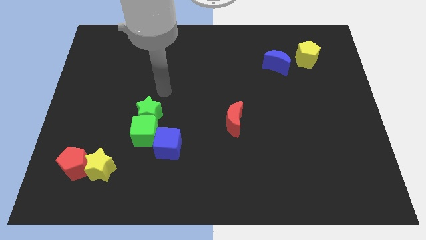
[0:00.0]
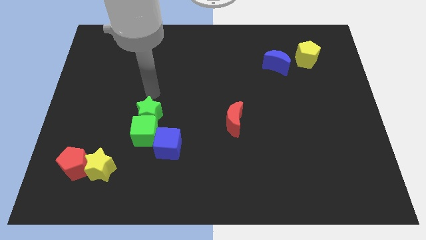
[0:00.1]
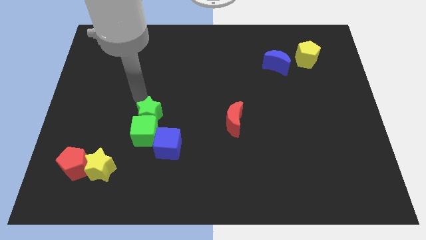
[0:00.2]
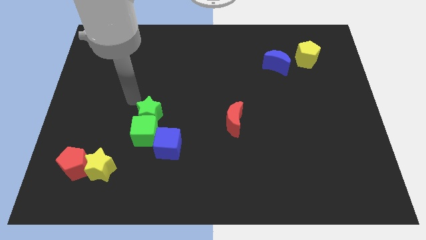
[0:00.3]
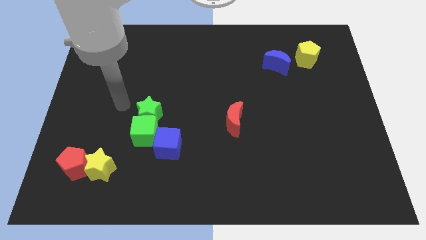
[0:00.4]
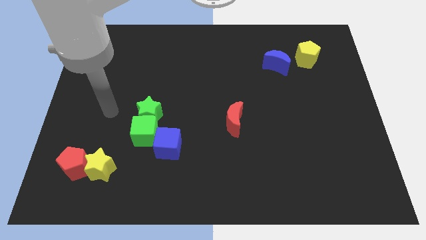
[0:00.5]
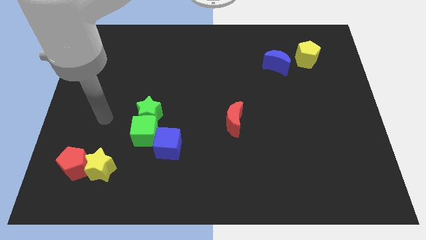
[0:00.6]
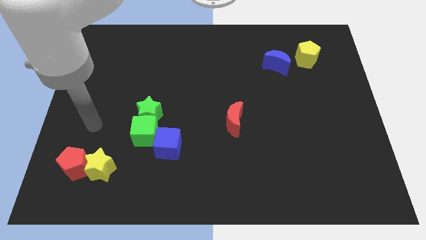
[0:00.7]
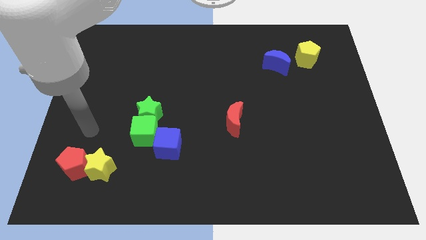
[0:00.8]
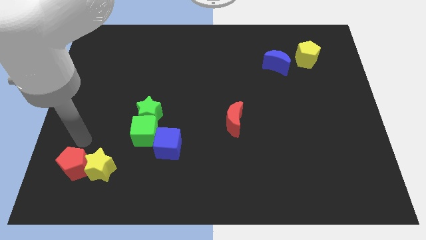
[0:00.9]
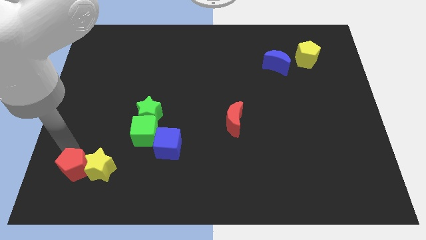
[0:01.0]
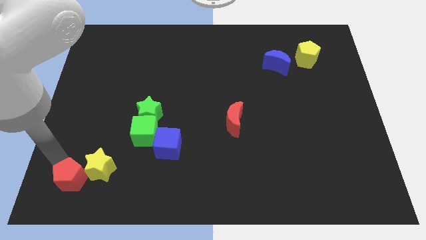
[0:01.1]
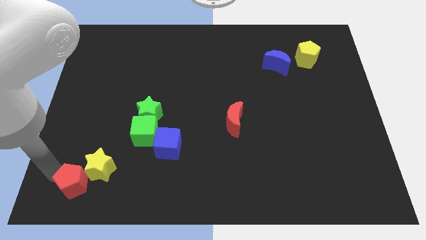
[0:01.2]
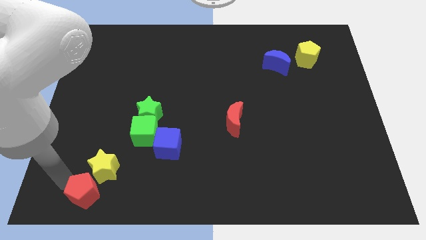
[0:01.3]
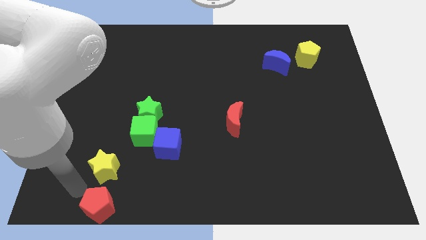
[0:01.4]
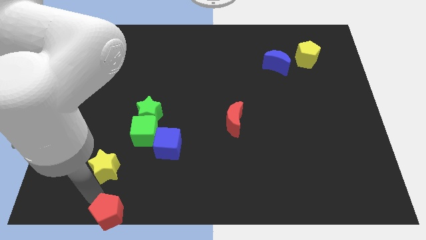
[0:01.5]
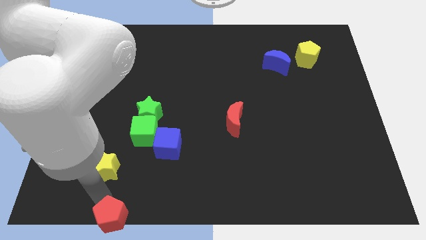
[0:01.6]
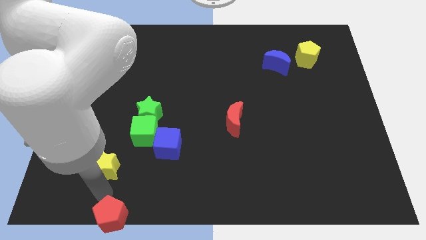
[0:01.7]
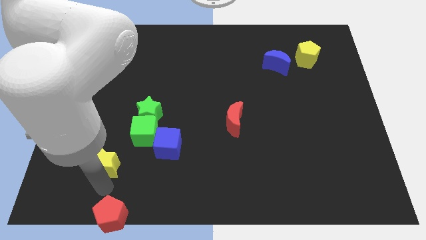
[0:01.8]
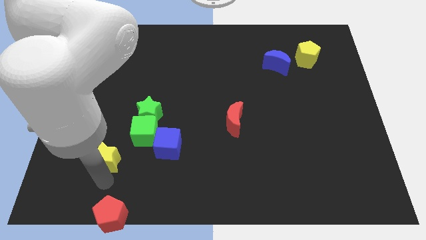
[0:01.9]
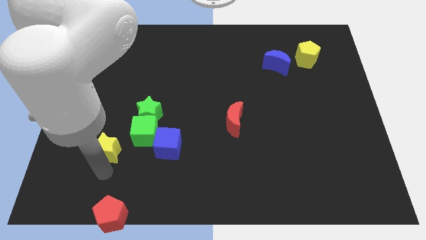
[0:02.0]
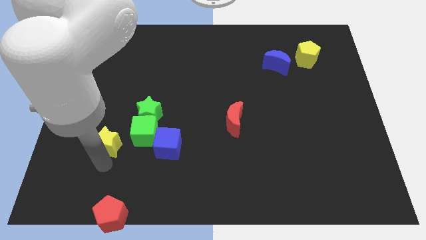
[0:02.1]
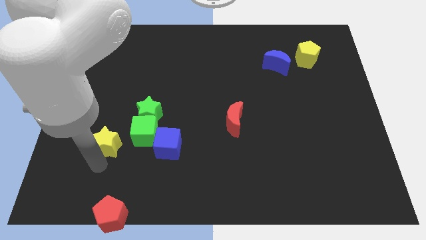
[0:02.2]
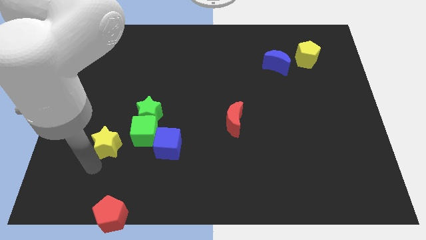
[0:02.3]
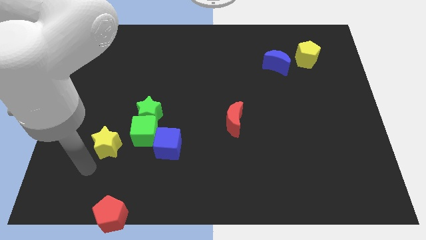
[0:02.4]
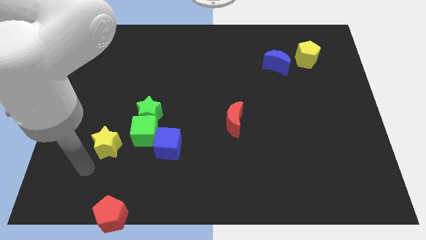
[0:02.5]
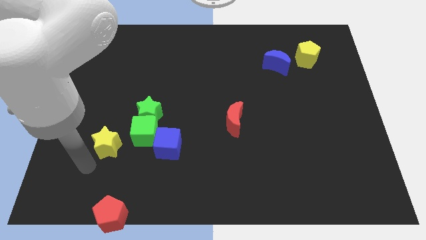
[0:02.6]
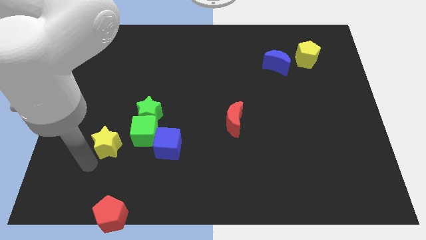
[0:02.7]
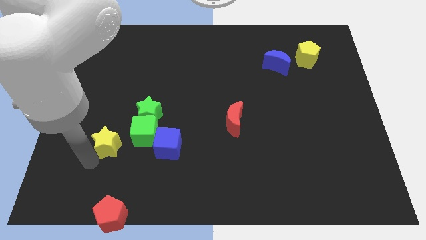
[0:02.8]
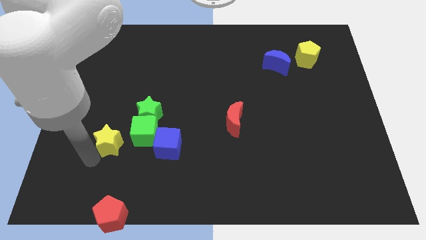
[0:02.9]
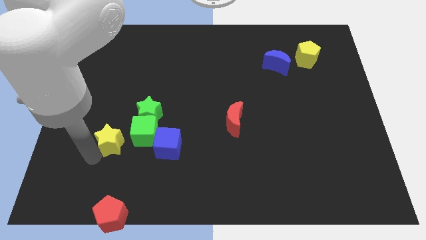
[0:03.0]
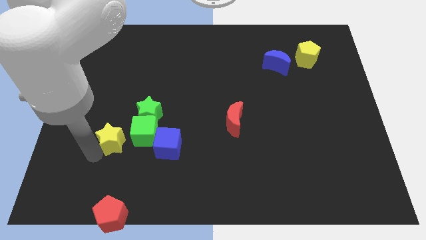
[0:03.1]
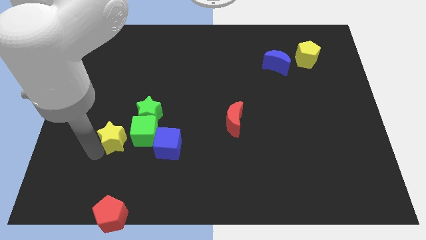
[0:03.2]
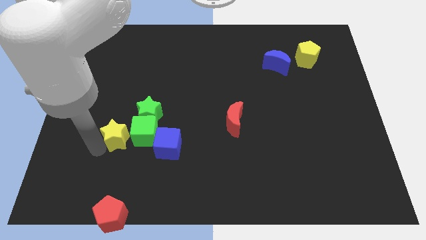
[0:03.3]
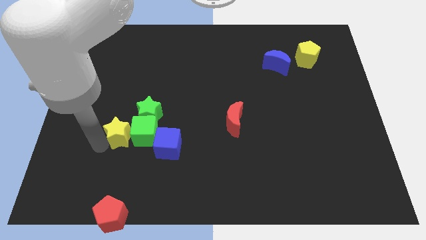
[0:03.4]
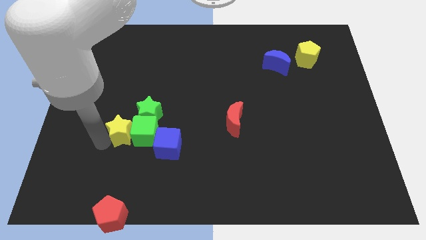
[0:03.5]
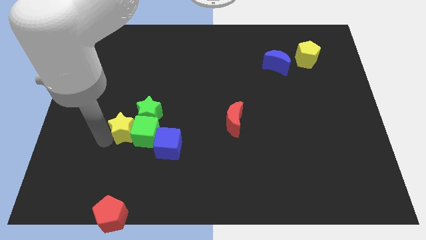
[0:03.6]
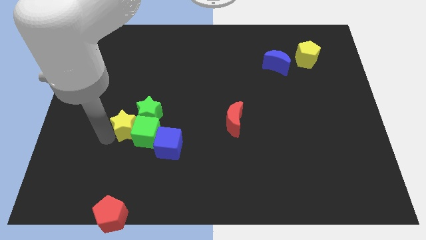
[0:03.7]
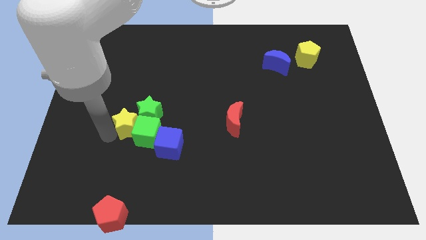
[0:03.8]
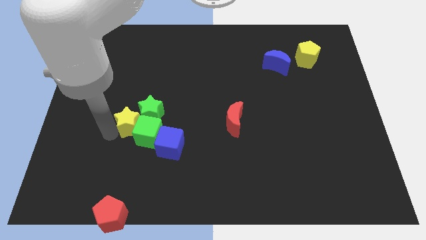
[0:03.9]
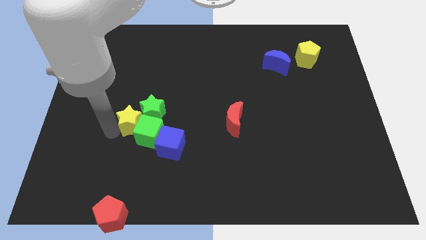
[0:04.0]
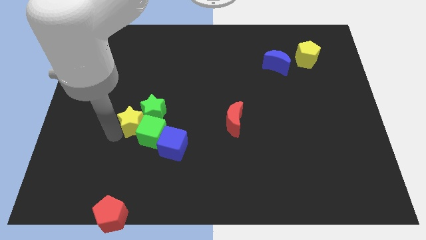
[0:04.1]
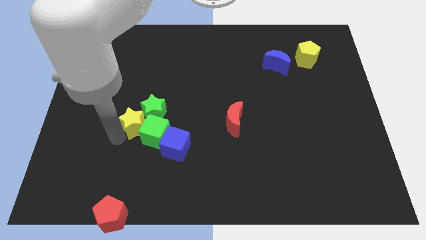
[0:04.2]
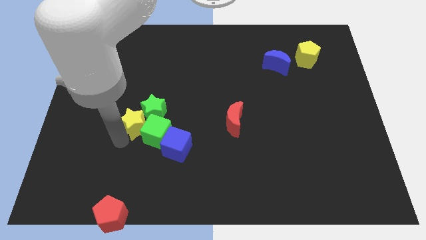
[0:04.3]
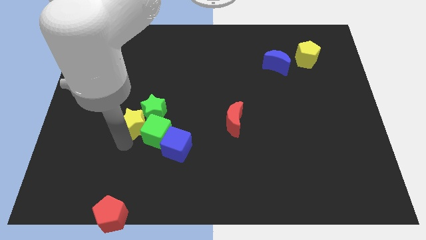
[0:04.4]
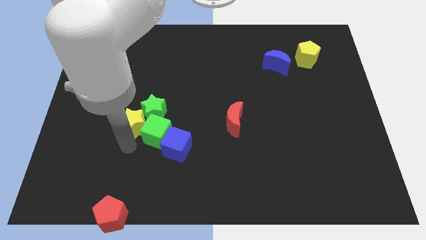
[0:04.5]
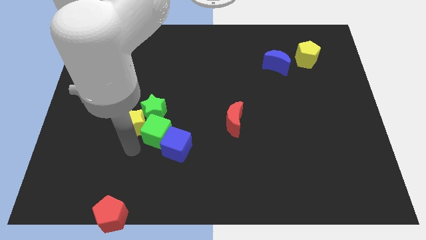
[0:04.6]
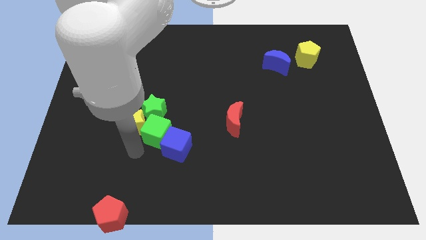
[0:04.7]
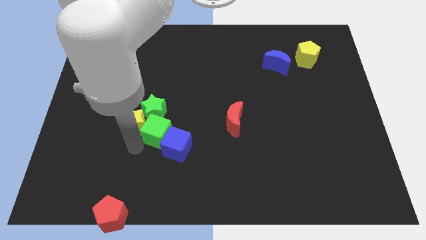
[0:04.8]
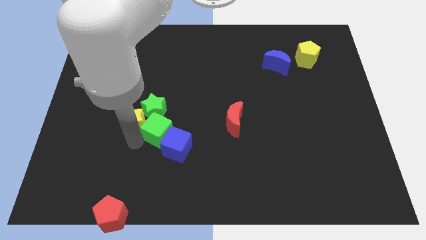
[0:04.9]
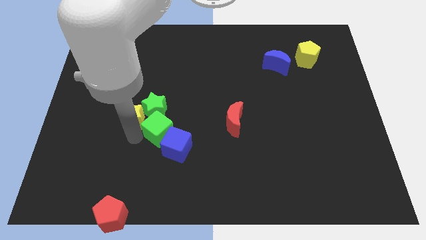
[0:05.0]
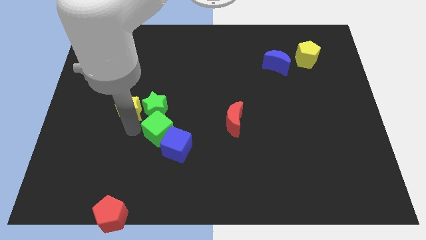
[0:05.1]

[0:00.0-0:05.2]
push the yellow star to the top left of the green star

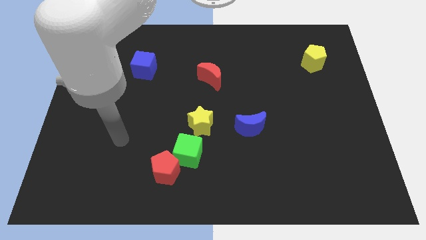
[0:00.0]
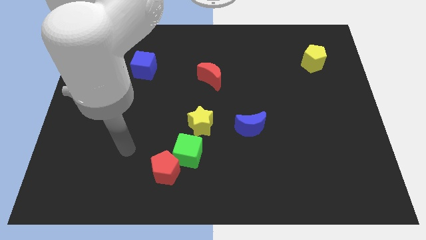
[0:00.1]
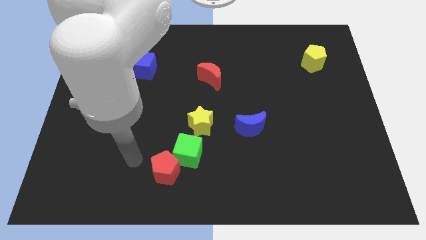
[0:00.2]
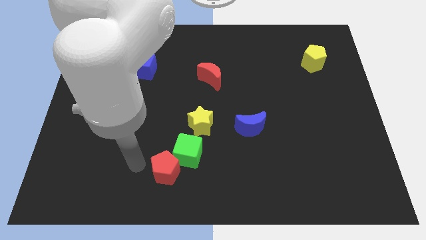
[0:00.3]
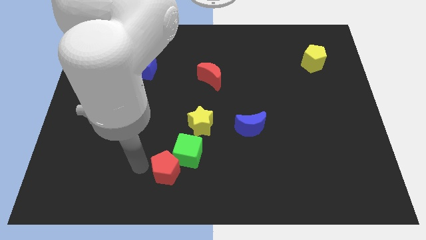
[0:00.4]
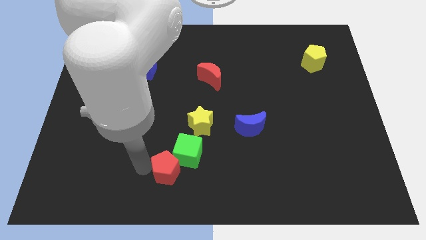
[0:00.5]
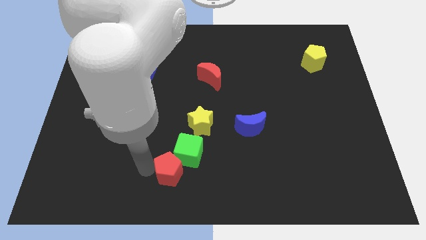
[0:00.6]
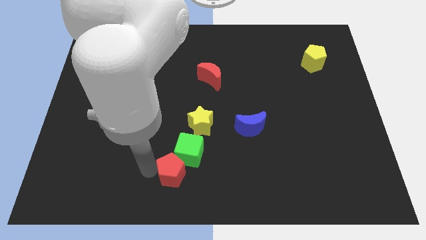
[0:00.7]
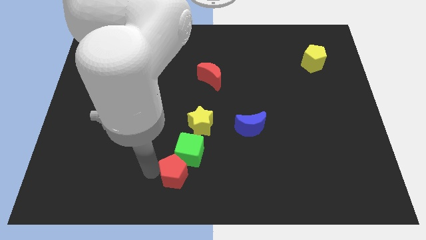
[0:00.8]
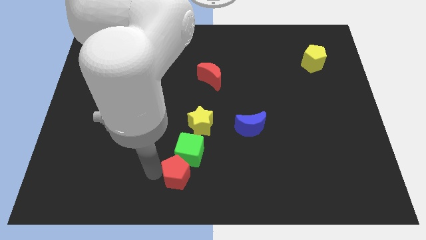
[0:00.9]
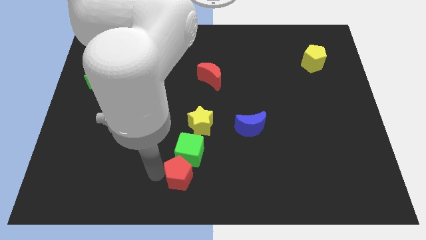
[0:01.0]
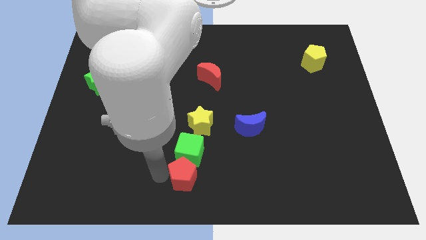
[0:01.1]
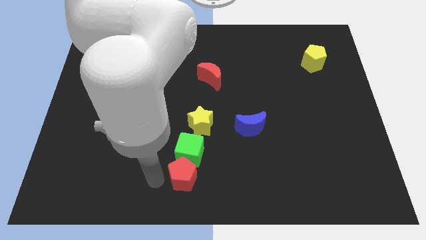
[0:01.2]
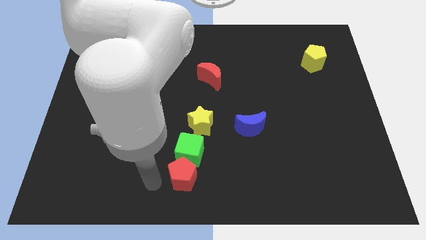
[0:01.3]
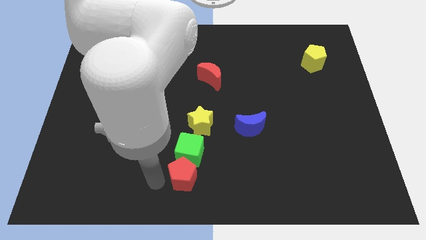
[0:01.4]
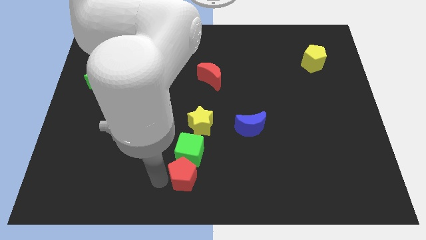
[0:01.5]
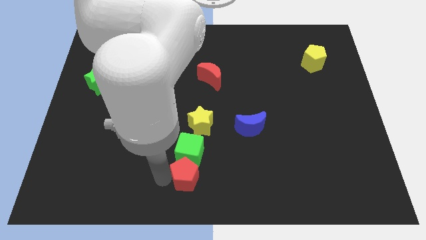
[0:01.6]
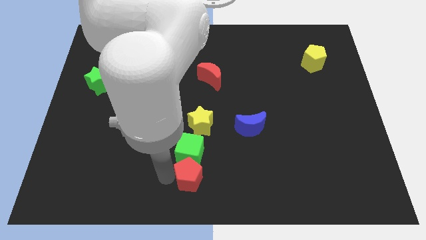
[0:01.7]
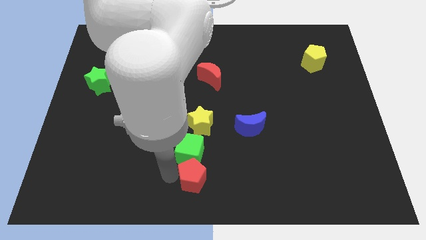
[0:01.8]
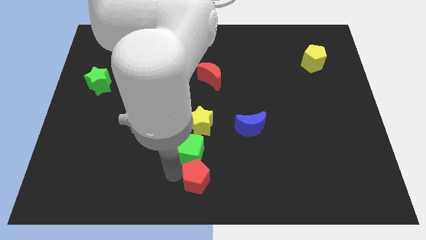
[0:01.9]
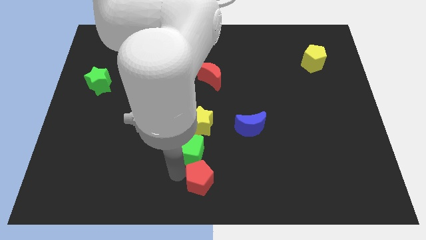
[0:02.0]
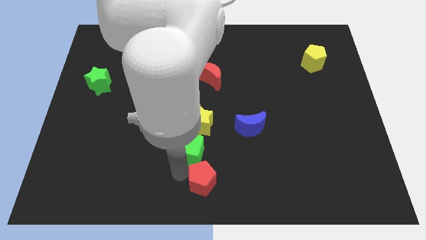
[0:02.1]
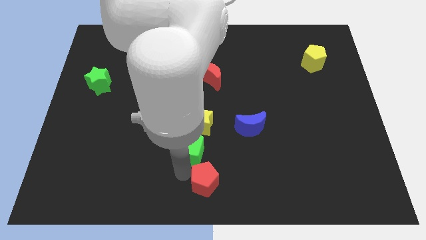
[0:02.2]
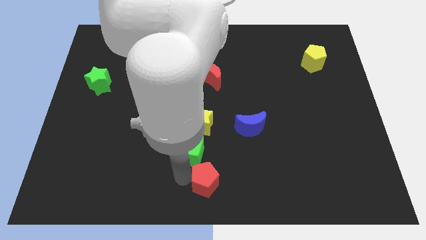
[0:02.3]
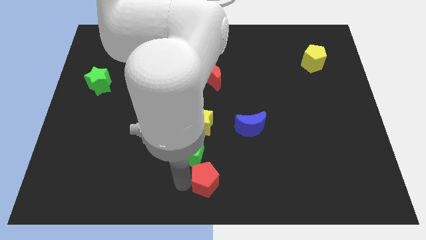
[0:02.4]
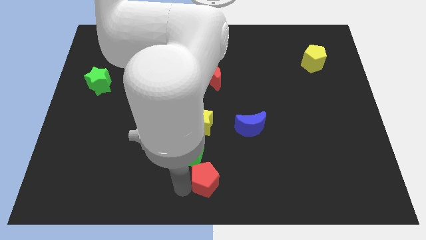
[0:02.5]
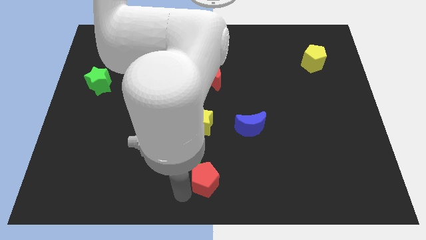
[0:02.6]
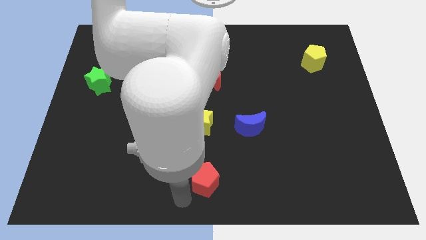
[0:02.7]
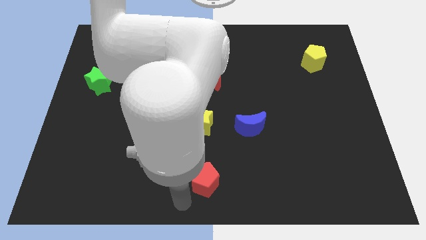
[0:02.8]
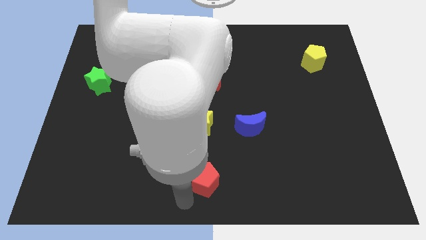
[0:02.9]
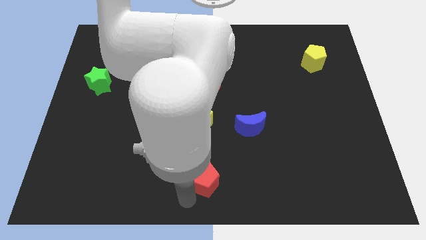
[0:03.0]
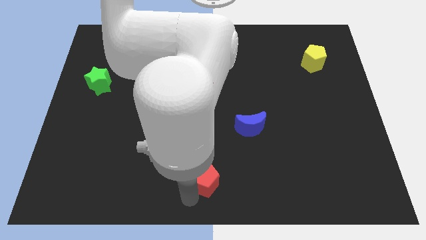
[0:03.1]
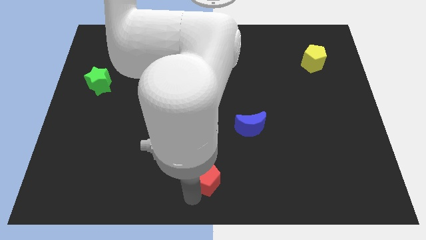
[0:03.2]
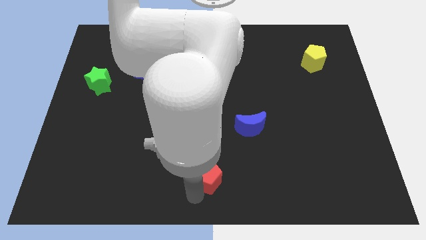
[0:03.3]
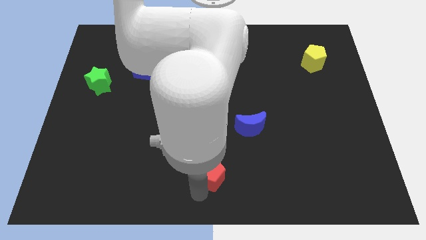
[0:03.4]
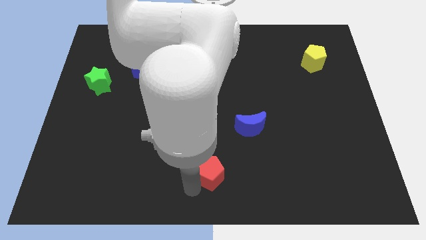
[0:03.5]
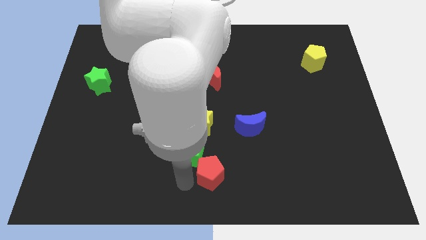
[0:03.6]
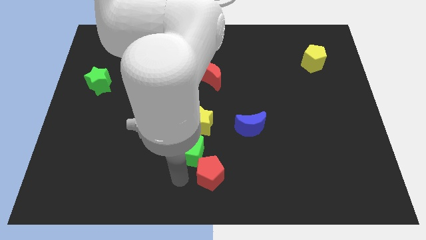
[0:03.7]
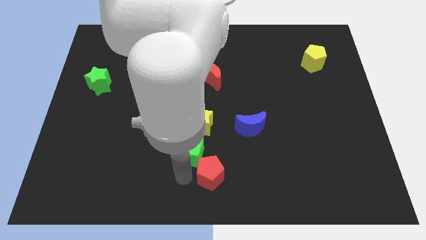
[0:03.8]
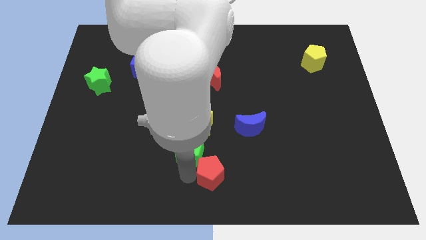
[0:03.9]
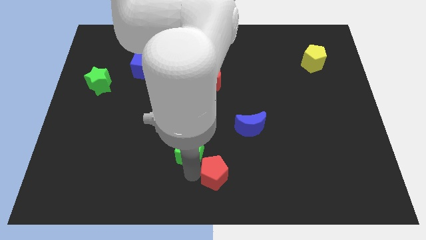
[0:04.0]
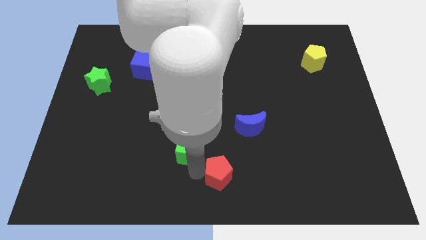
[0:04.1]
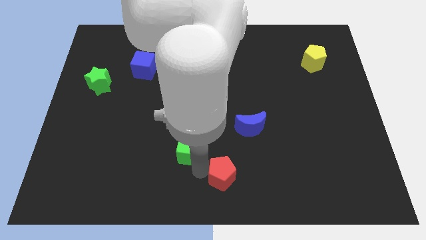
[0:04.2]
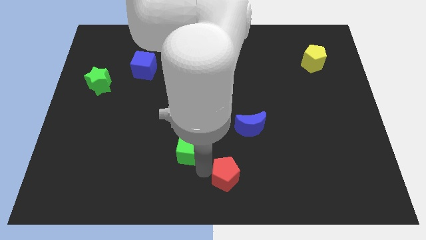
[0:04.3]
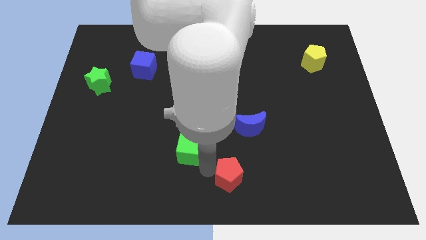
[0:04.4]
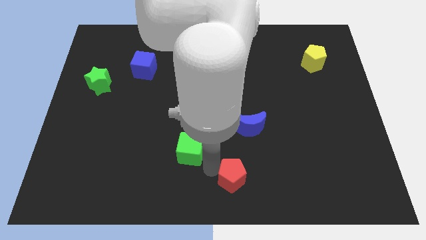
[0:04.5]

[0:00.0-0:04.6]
slide the red pentagon to the bottom of the blue moon
